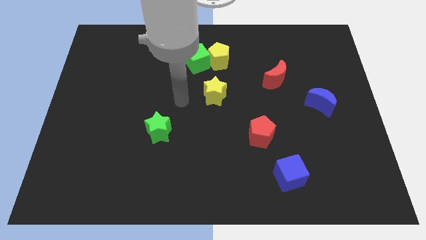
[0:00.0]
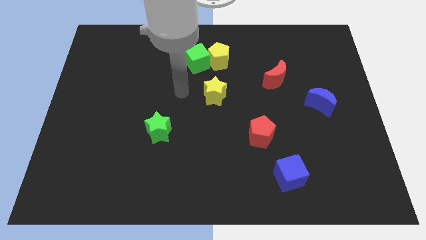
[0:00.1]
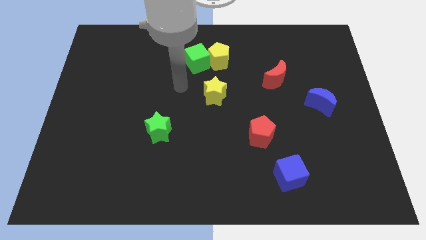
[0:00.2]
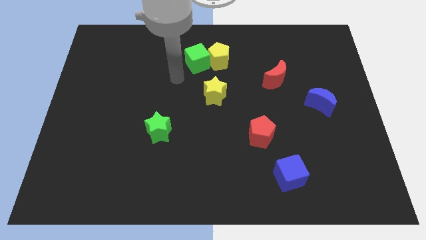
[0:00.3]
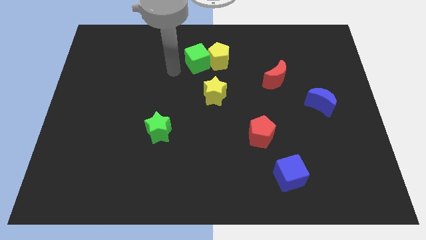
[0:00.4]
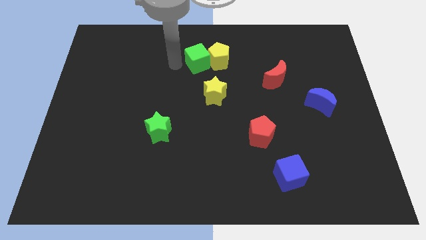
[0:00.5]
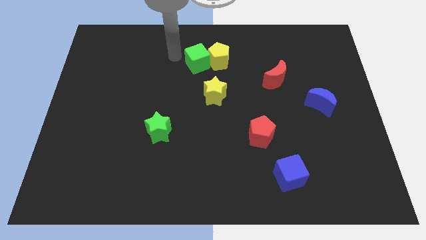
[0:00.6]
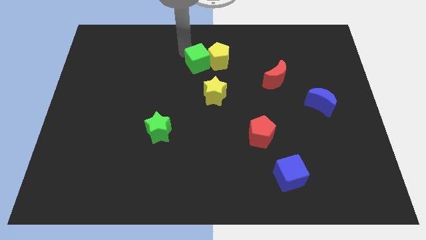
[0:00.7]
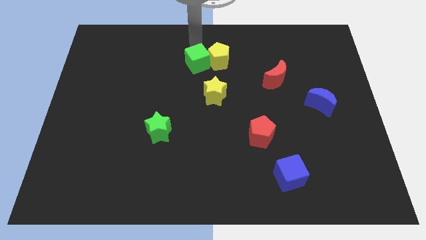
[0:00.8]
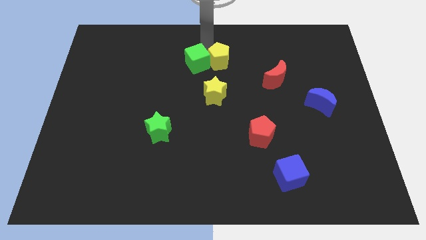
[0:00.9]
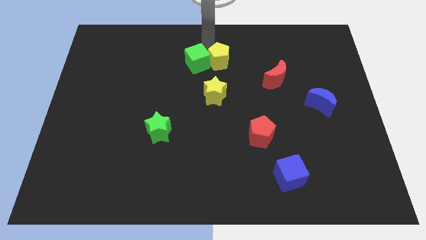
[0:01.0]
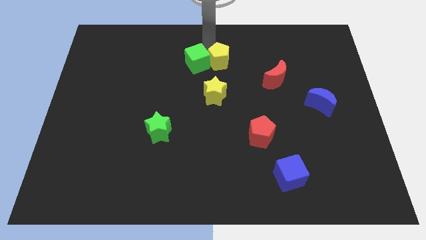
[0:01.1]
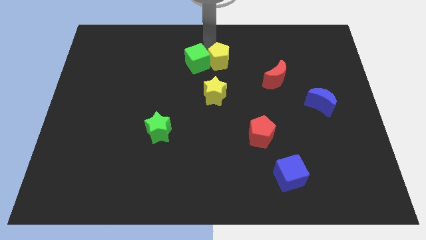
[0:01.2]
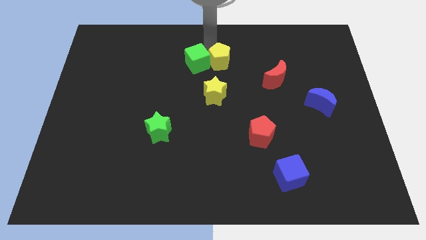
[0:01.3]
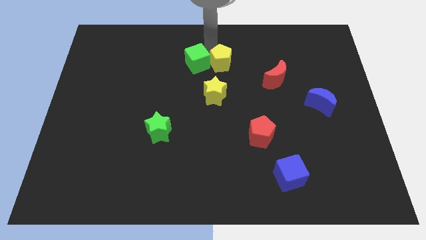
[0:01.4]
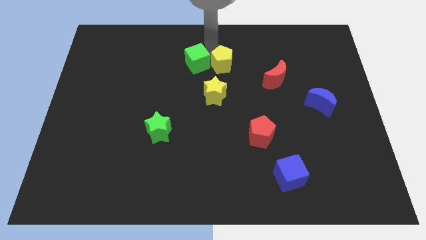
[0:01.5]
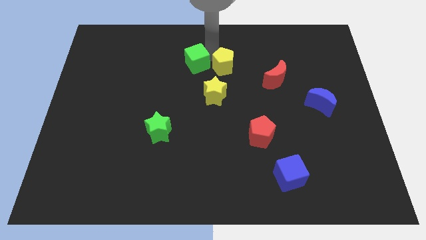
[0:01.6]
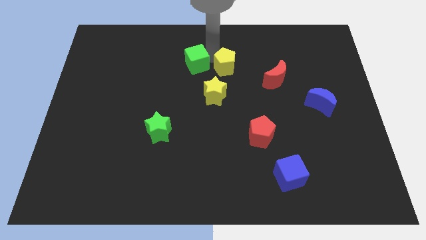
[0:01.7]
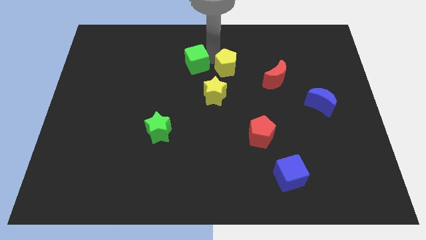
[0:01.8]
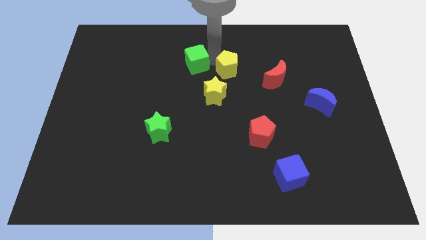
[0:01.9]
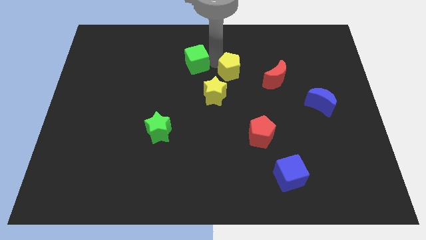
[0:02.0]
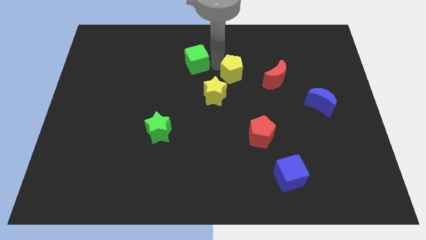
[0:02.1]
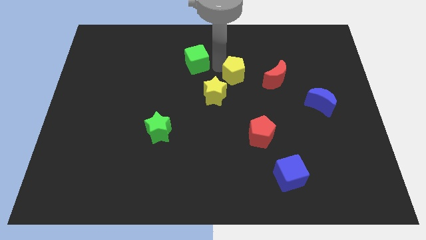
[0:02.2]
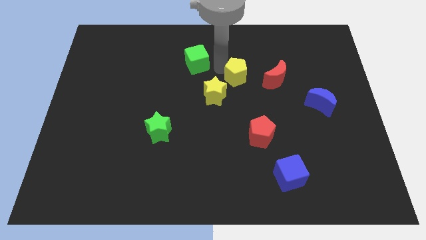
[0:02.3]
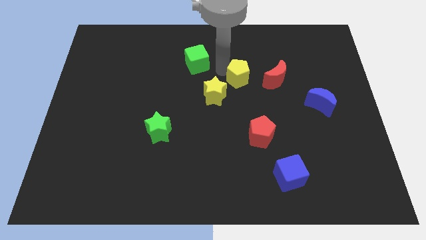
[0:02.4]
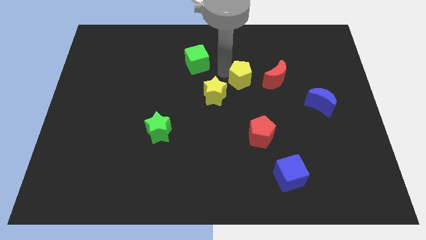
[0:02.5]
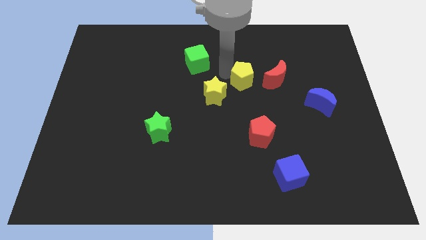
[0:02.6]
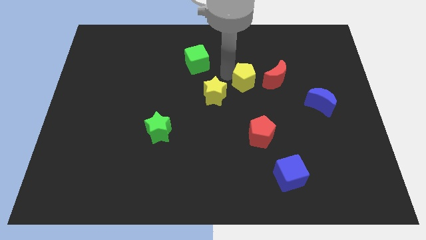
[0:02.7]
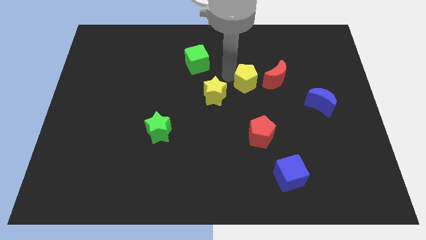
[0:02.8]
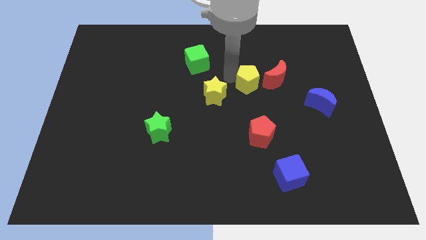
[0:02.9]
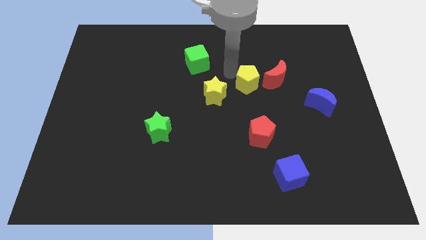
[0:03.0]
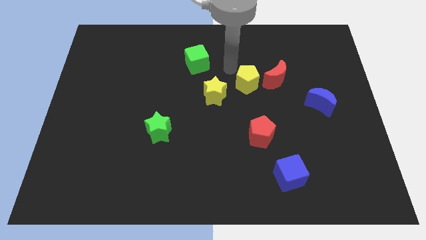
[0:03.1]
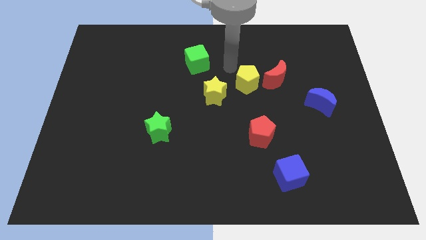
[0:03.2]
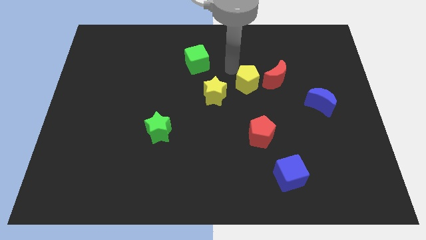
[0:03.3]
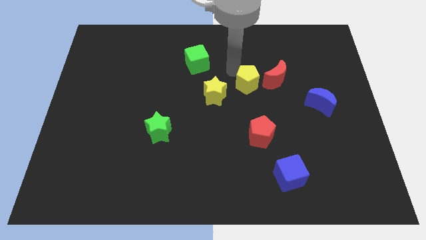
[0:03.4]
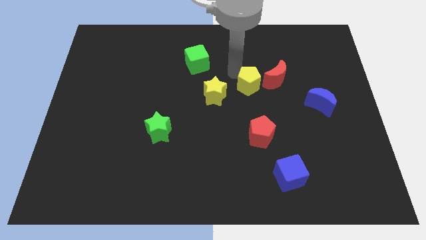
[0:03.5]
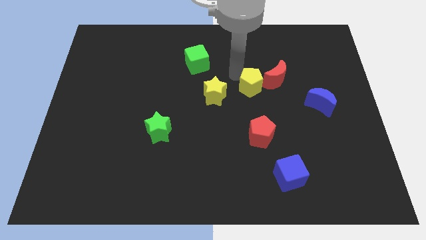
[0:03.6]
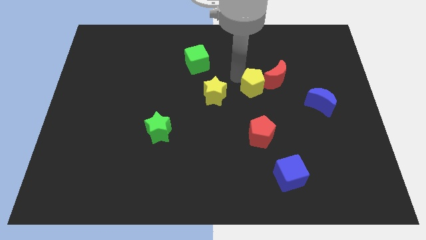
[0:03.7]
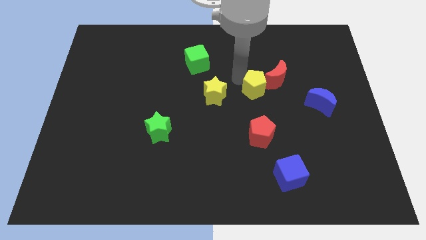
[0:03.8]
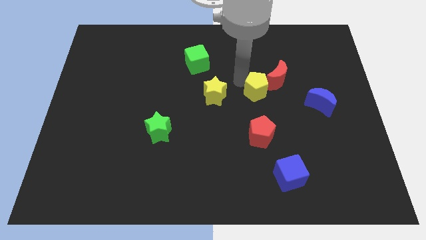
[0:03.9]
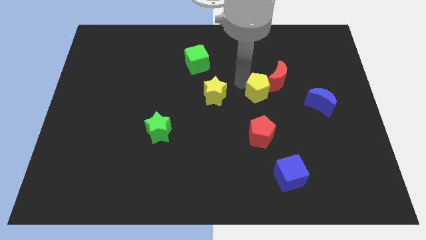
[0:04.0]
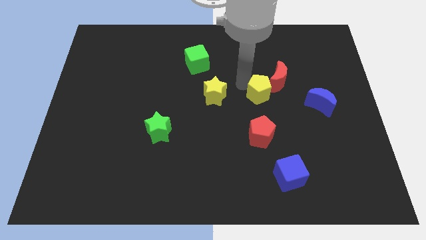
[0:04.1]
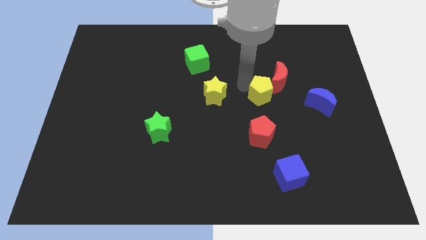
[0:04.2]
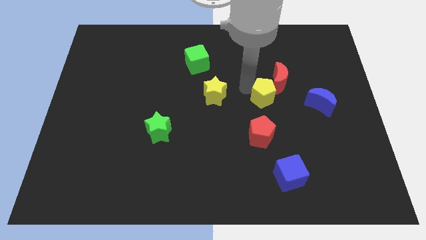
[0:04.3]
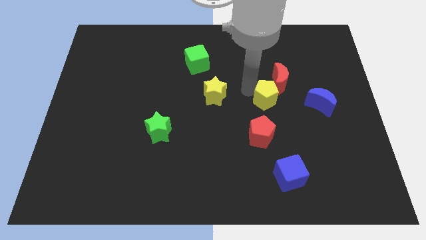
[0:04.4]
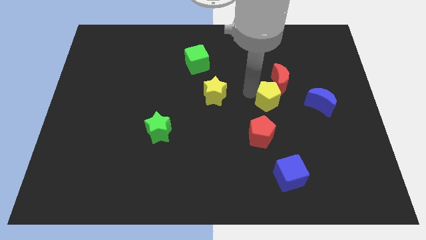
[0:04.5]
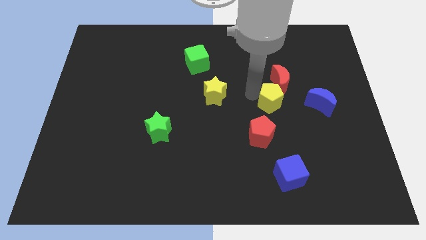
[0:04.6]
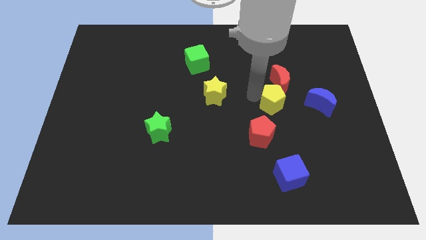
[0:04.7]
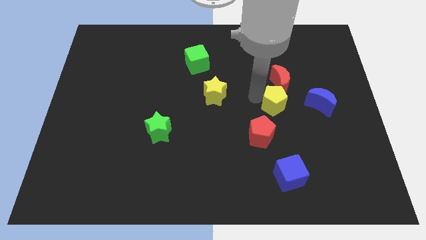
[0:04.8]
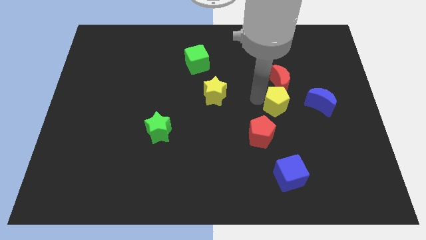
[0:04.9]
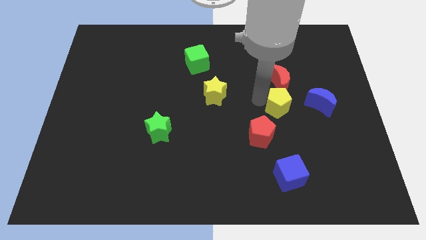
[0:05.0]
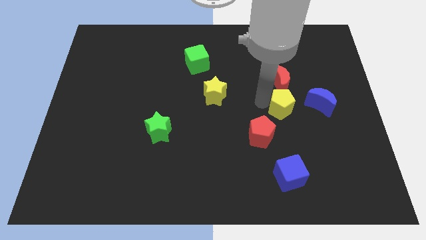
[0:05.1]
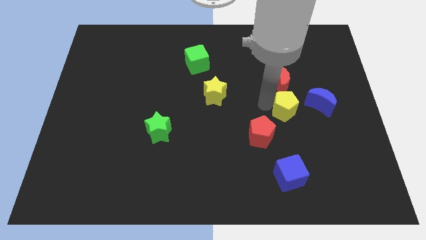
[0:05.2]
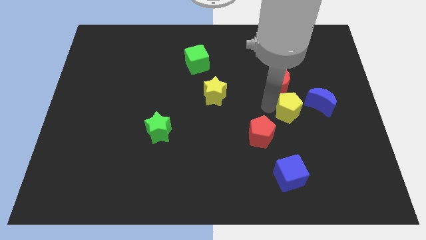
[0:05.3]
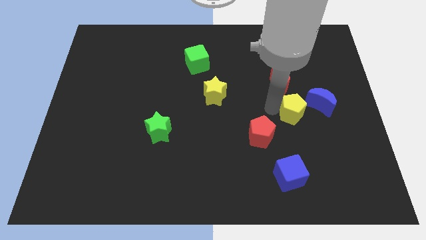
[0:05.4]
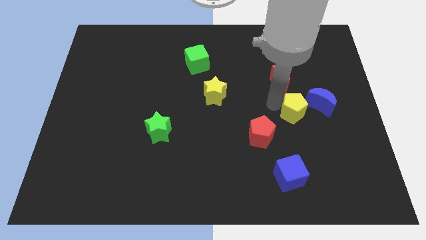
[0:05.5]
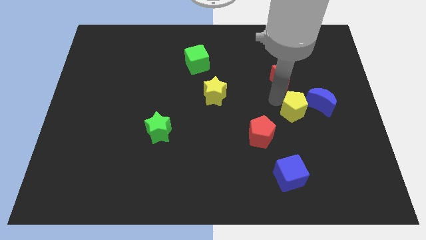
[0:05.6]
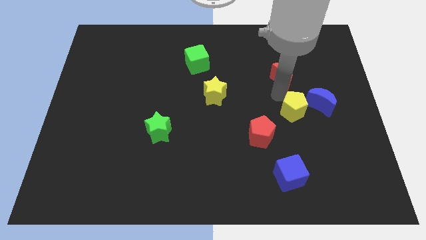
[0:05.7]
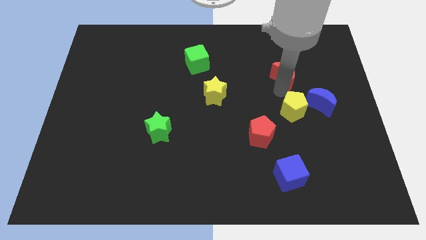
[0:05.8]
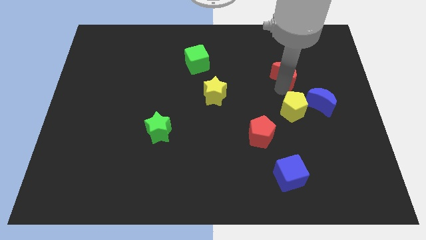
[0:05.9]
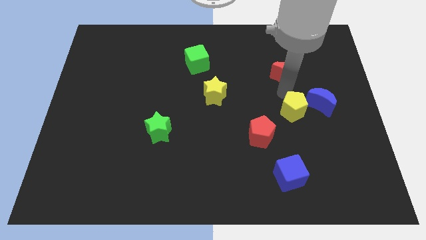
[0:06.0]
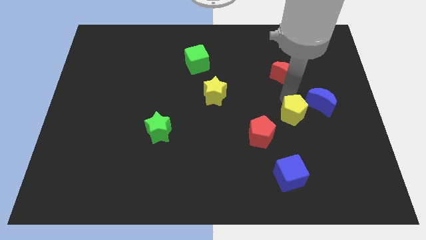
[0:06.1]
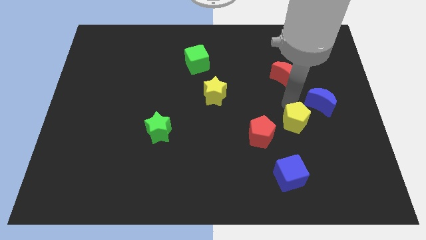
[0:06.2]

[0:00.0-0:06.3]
slide the yellow pentagon just right of the red pentagon

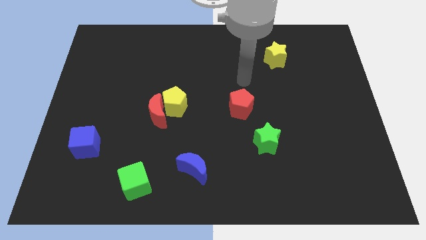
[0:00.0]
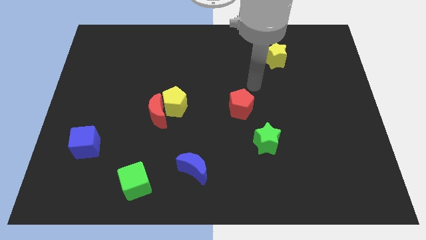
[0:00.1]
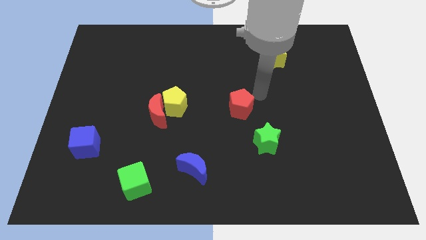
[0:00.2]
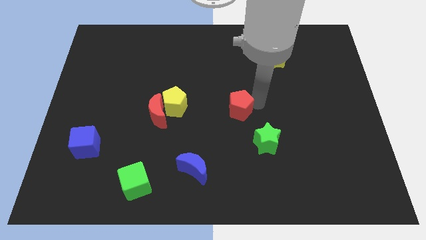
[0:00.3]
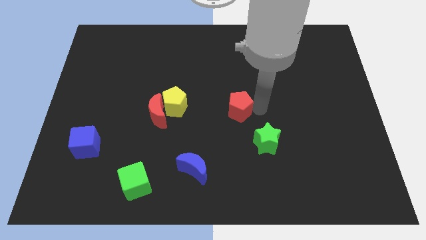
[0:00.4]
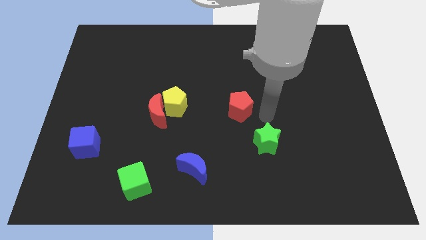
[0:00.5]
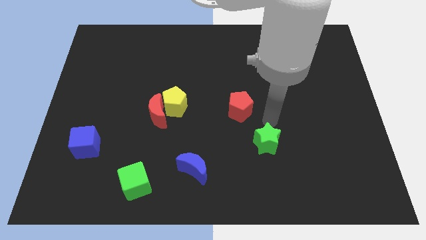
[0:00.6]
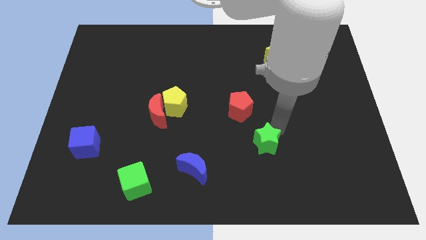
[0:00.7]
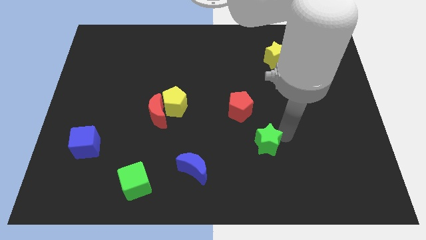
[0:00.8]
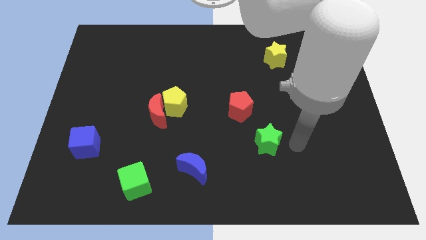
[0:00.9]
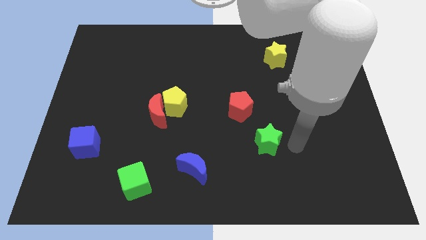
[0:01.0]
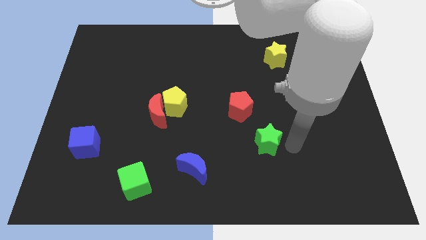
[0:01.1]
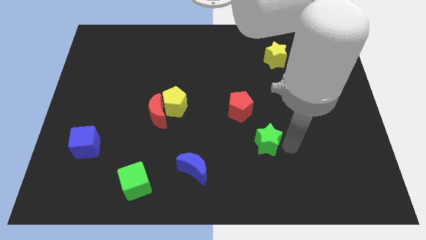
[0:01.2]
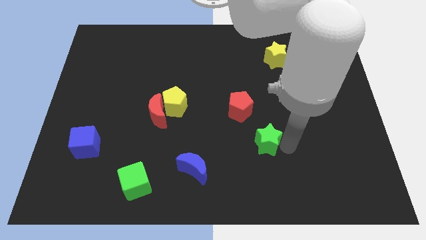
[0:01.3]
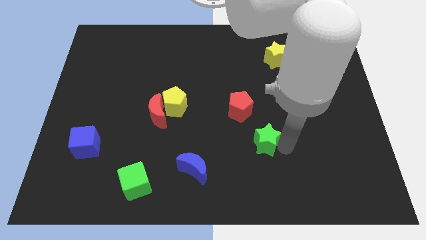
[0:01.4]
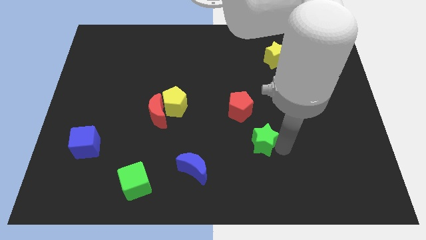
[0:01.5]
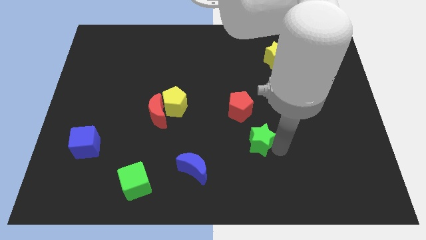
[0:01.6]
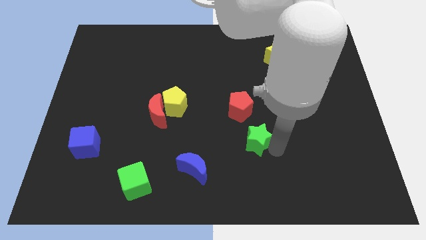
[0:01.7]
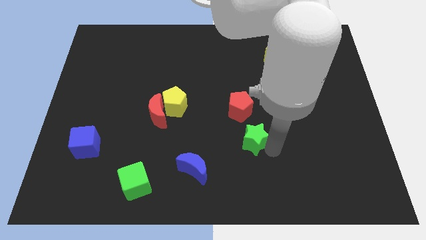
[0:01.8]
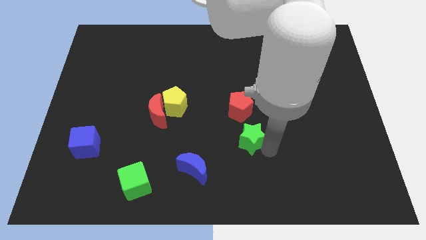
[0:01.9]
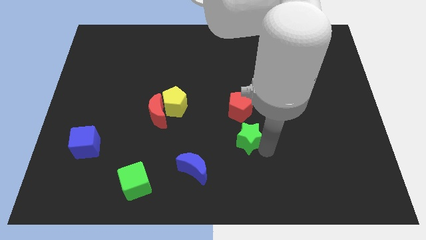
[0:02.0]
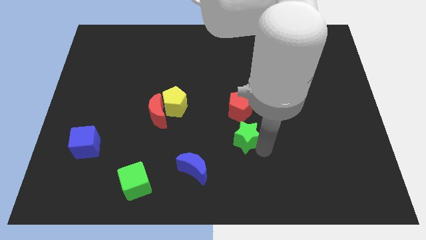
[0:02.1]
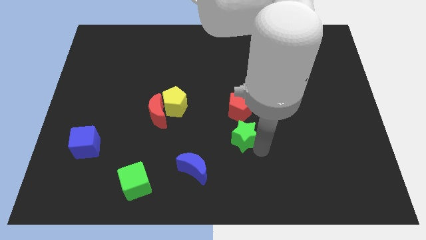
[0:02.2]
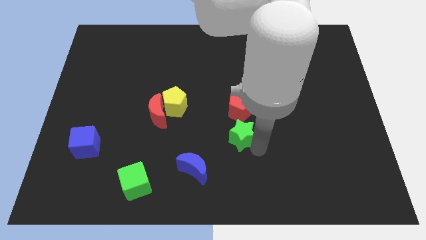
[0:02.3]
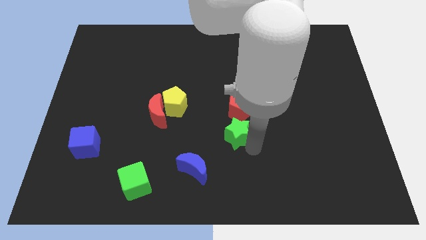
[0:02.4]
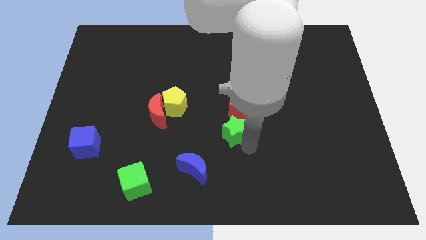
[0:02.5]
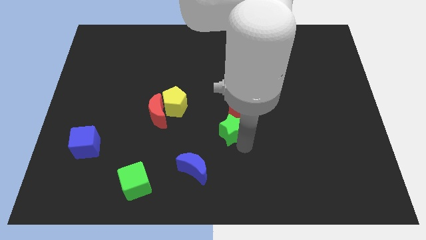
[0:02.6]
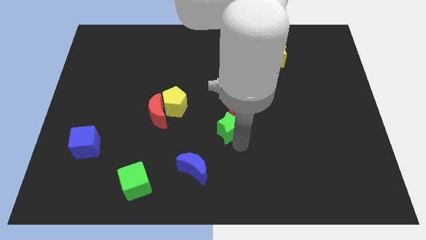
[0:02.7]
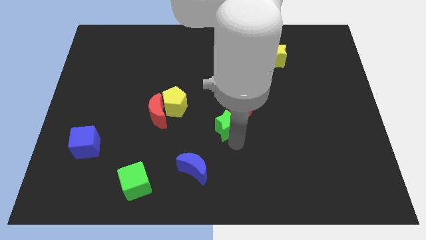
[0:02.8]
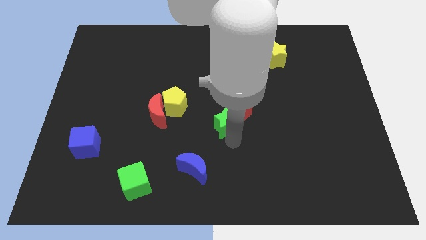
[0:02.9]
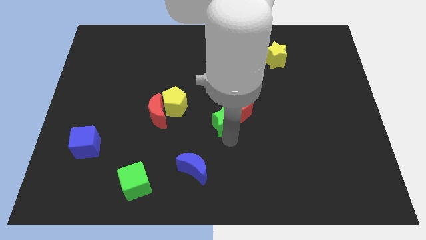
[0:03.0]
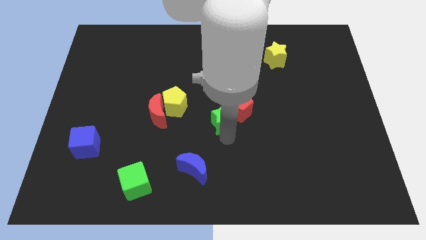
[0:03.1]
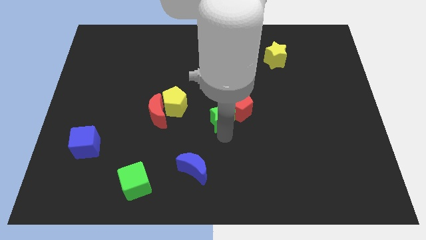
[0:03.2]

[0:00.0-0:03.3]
push the green star to the right of the yellow pentagon
